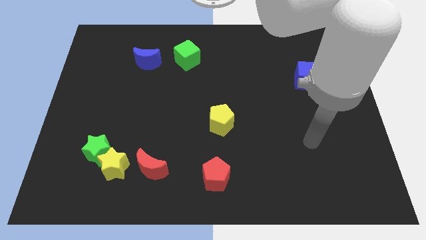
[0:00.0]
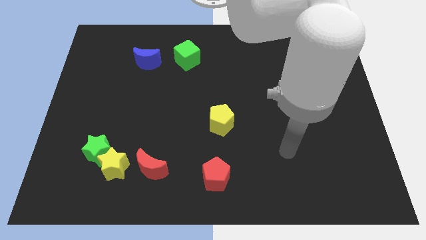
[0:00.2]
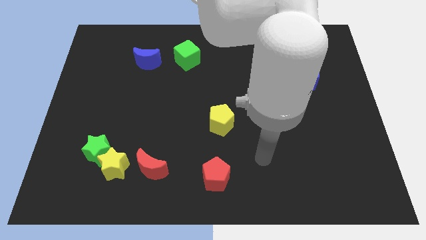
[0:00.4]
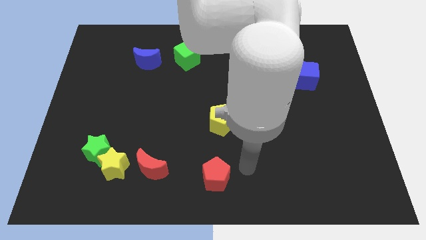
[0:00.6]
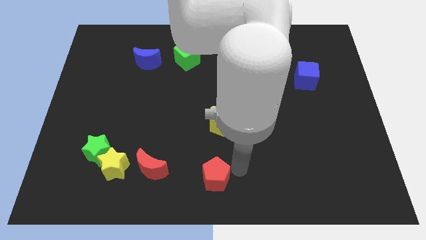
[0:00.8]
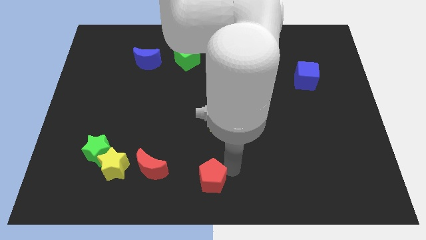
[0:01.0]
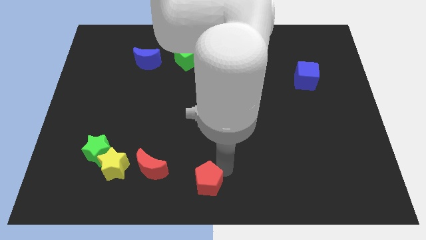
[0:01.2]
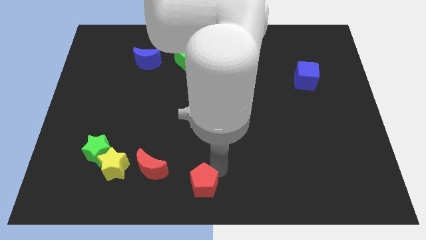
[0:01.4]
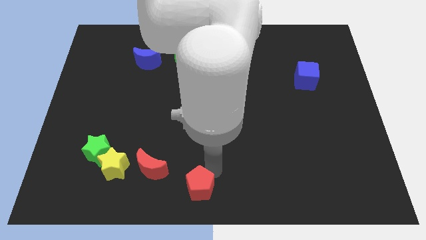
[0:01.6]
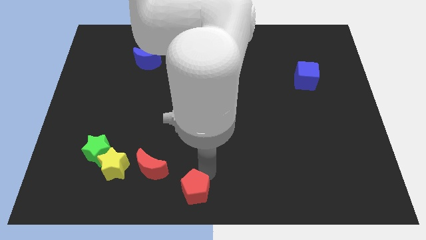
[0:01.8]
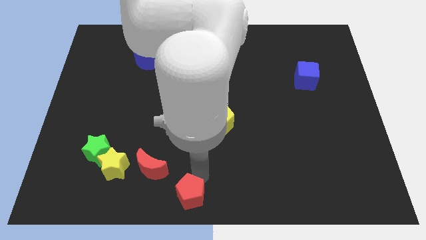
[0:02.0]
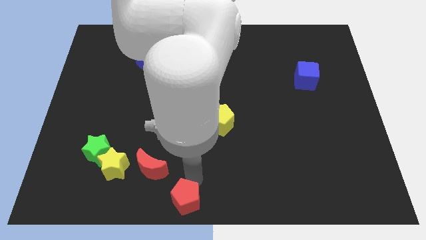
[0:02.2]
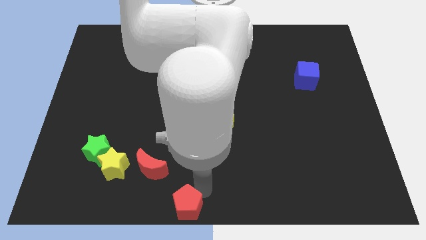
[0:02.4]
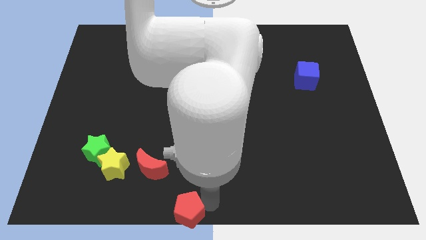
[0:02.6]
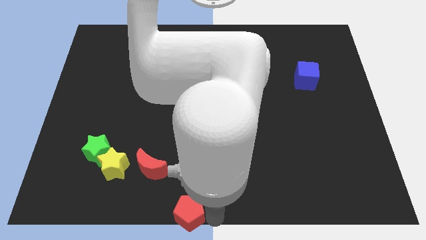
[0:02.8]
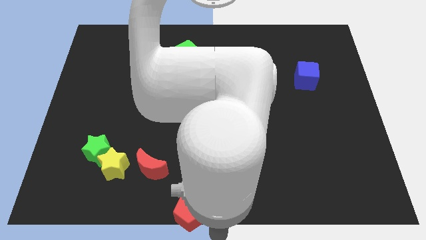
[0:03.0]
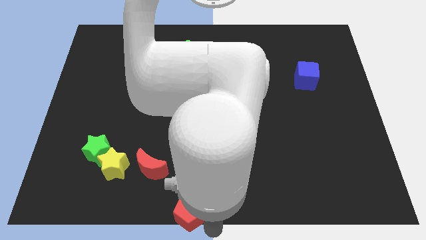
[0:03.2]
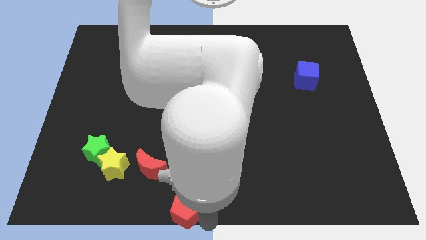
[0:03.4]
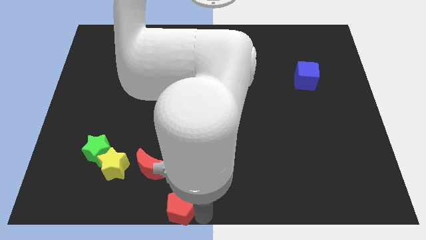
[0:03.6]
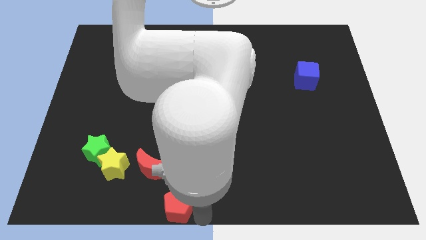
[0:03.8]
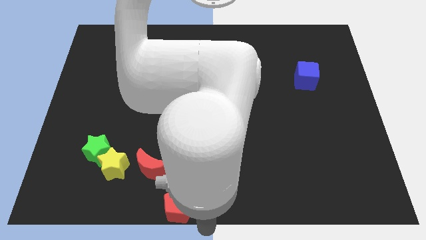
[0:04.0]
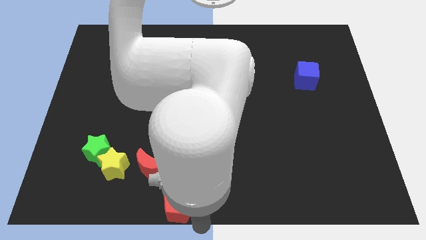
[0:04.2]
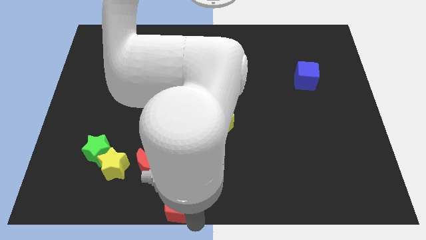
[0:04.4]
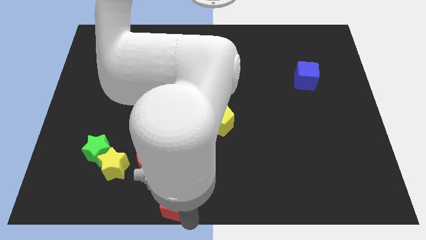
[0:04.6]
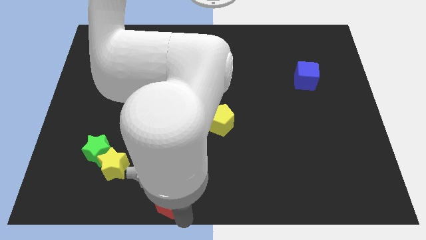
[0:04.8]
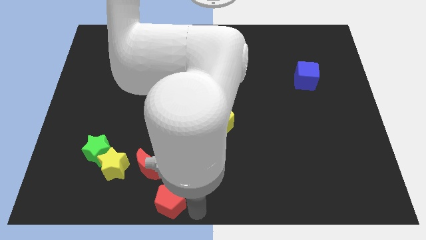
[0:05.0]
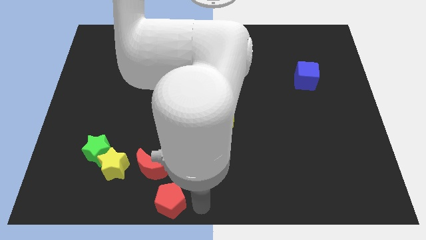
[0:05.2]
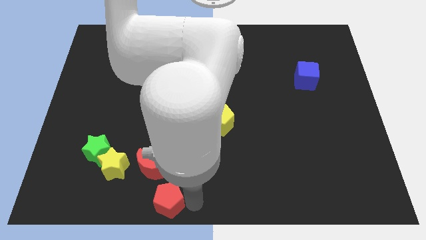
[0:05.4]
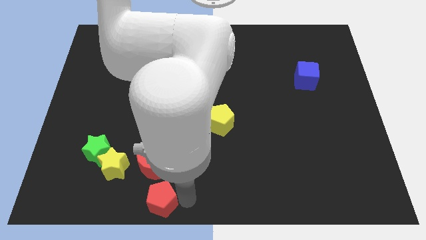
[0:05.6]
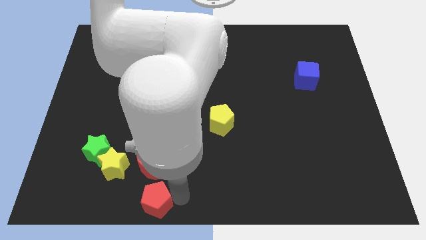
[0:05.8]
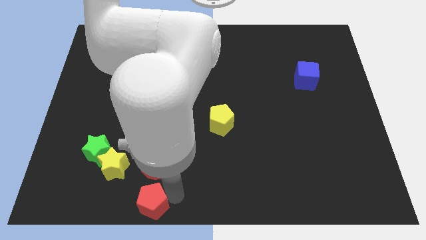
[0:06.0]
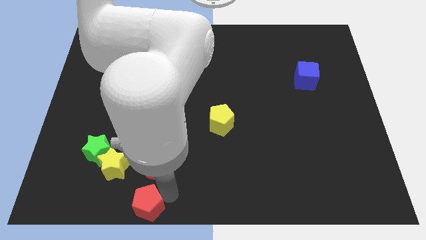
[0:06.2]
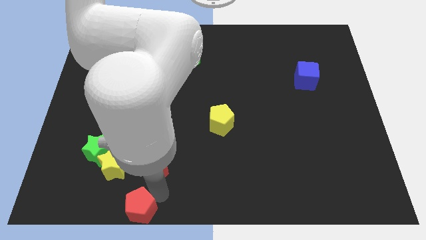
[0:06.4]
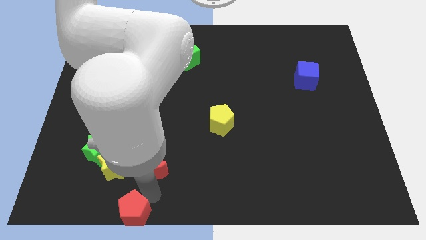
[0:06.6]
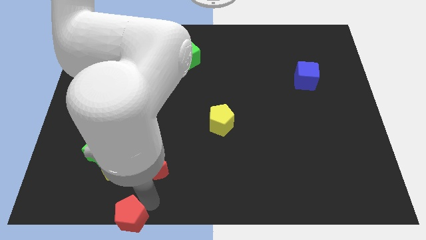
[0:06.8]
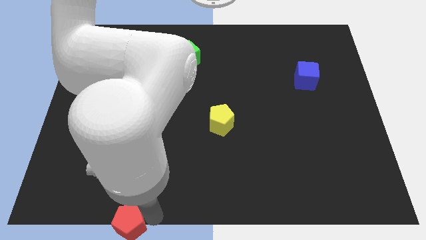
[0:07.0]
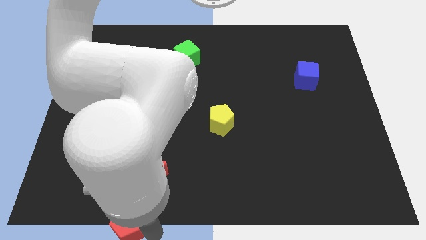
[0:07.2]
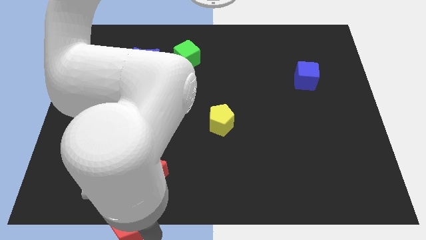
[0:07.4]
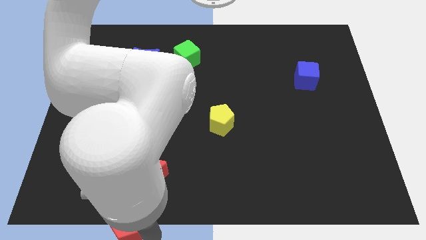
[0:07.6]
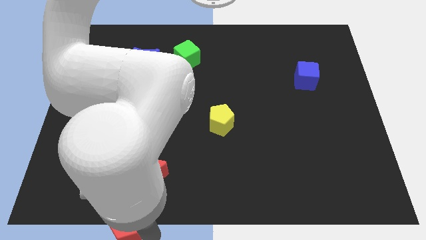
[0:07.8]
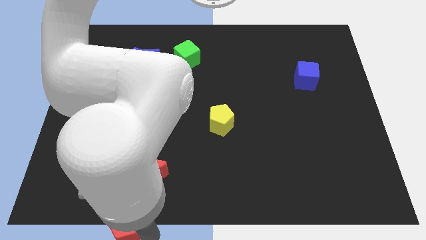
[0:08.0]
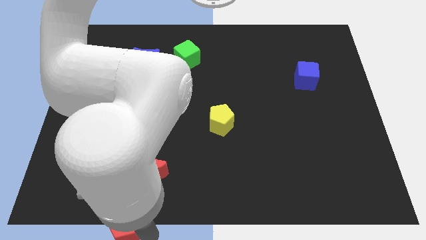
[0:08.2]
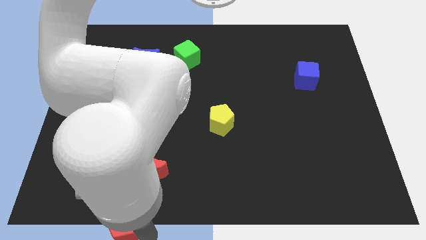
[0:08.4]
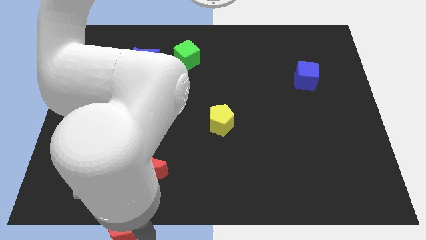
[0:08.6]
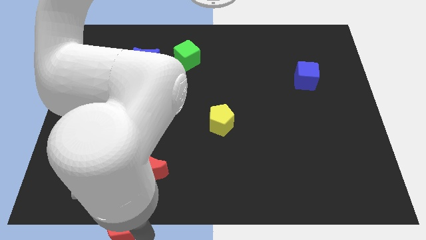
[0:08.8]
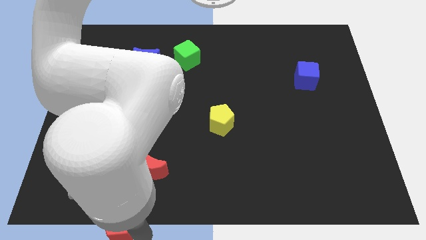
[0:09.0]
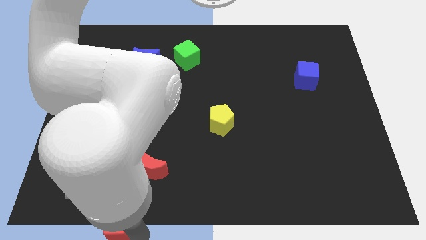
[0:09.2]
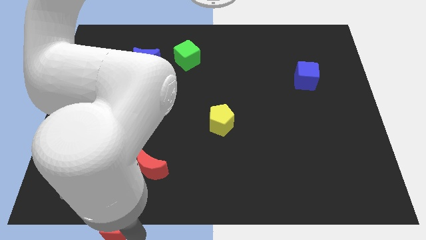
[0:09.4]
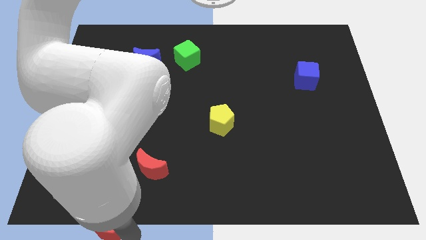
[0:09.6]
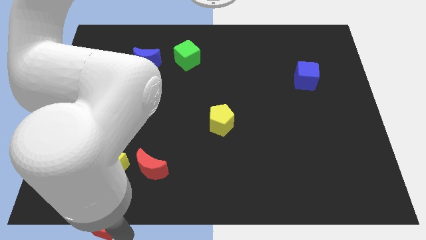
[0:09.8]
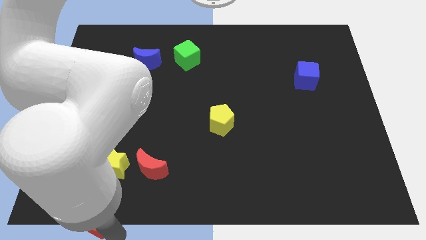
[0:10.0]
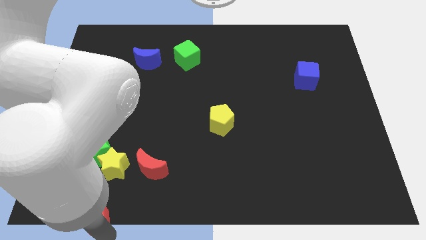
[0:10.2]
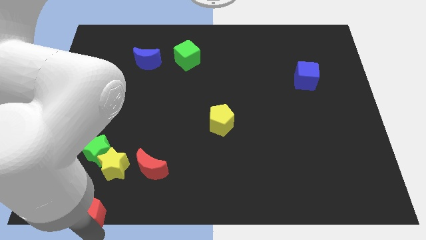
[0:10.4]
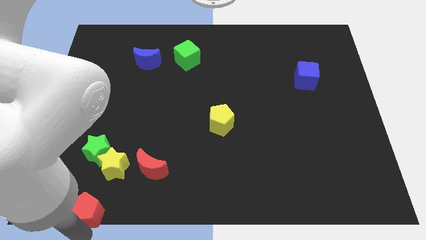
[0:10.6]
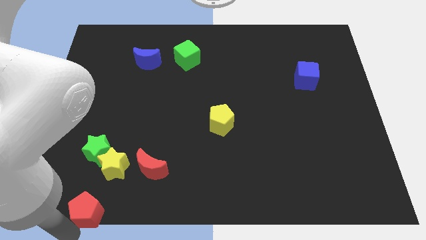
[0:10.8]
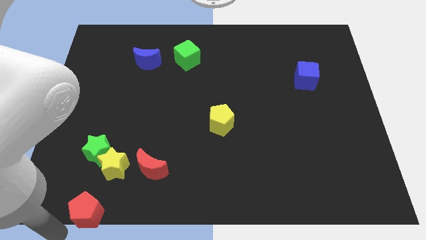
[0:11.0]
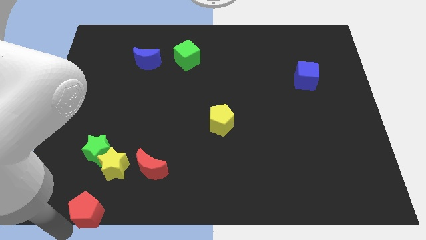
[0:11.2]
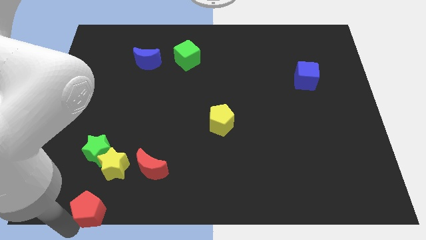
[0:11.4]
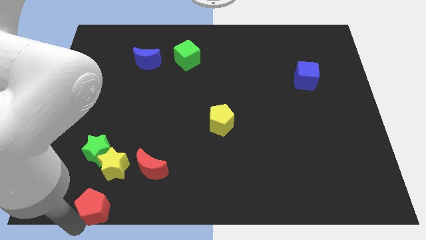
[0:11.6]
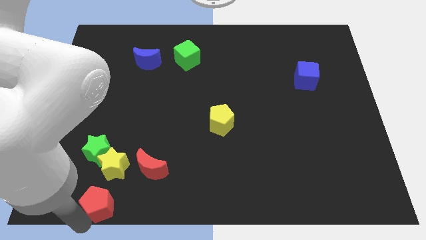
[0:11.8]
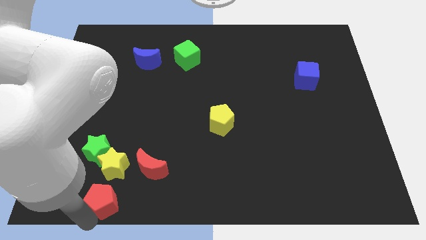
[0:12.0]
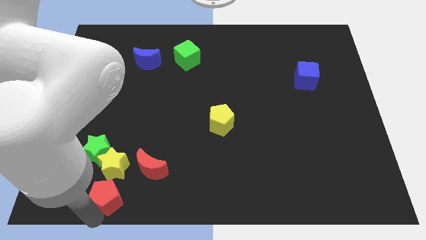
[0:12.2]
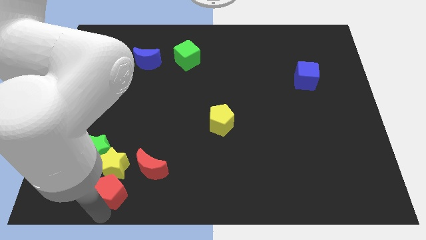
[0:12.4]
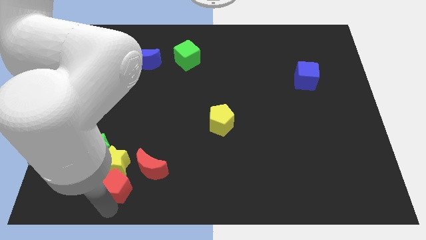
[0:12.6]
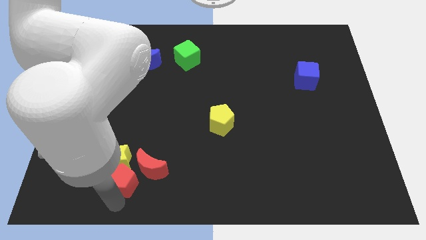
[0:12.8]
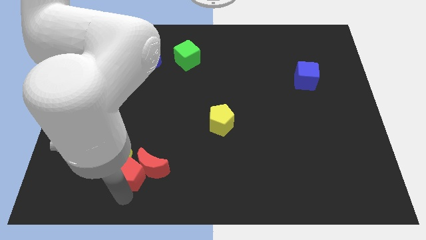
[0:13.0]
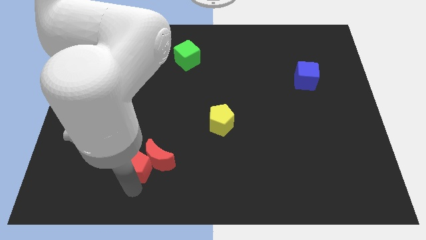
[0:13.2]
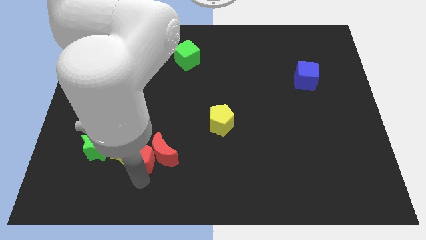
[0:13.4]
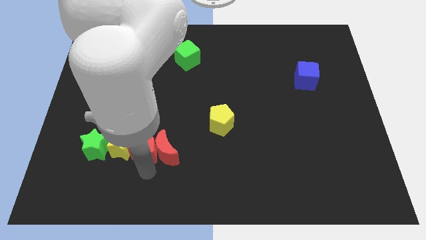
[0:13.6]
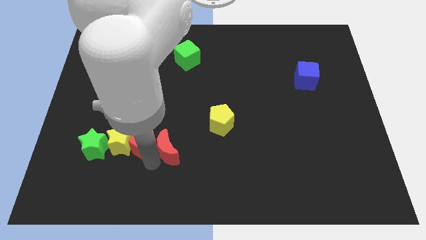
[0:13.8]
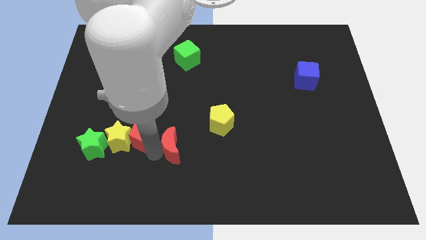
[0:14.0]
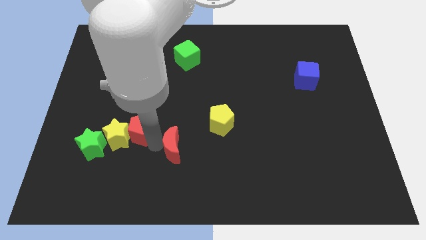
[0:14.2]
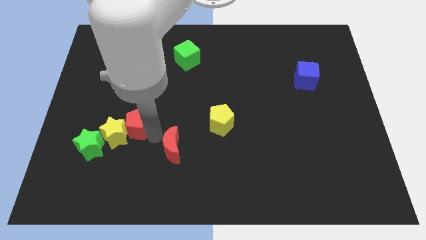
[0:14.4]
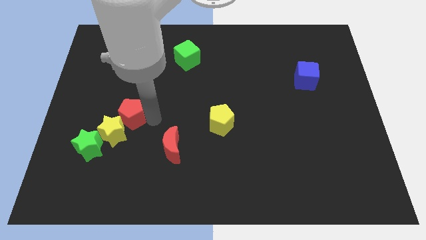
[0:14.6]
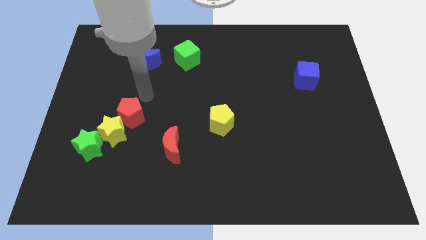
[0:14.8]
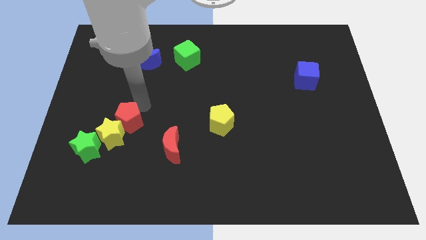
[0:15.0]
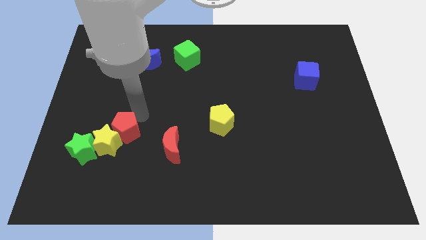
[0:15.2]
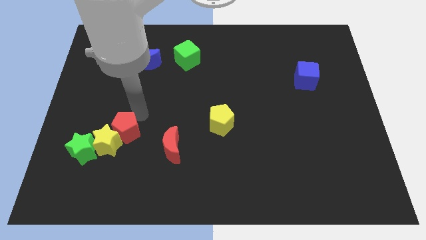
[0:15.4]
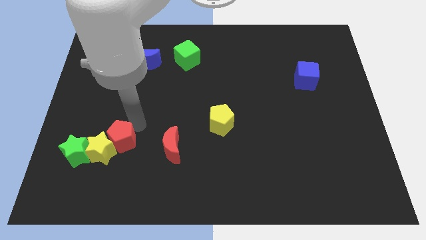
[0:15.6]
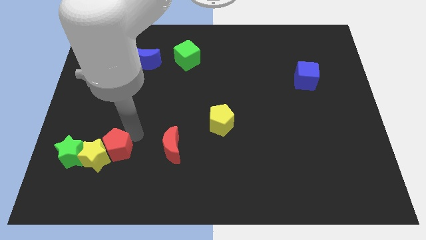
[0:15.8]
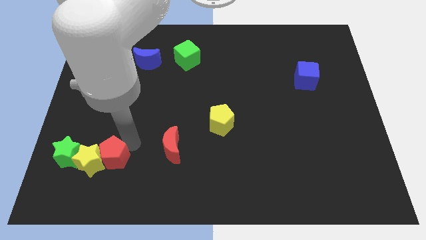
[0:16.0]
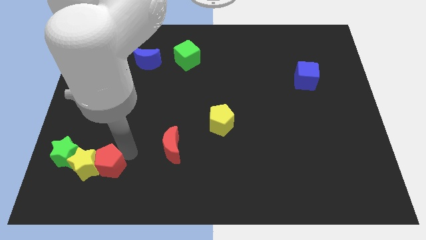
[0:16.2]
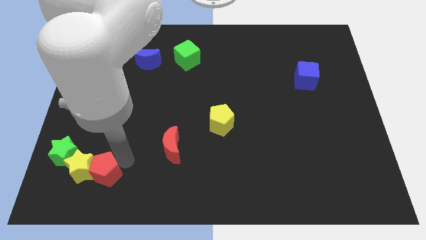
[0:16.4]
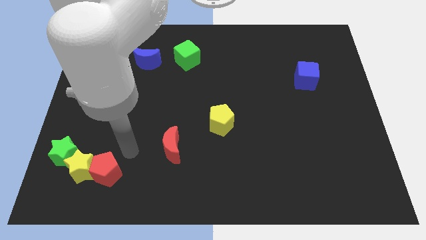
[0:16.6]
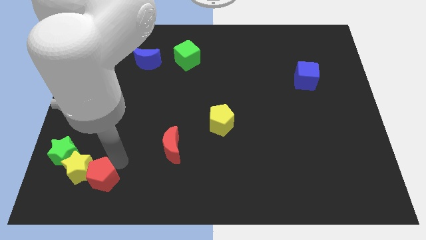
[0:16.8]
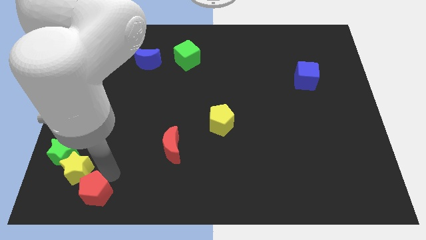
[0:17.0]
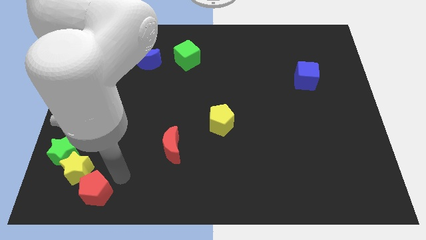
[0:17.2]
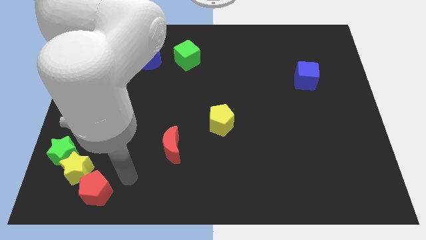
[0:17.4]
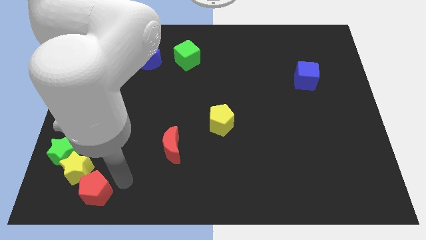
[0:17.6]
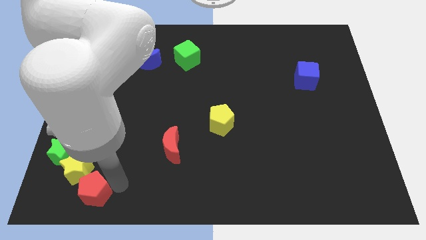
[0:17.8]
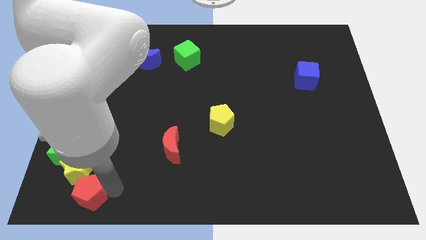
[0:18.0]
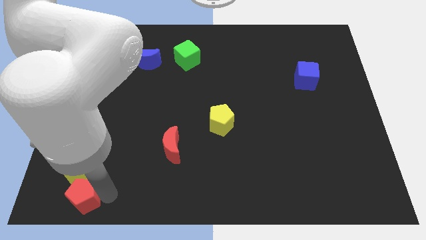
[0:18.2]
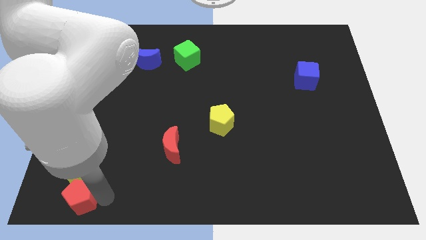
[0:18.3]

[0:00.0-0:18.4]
push the red pentagon to the bottom left of the board
